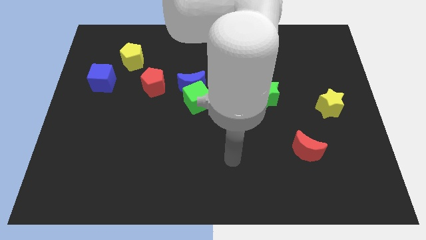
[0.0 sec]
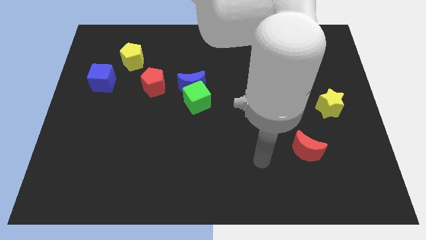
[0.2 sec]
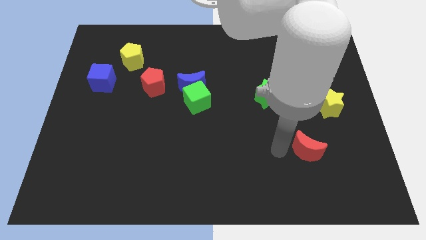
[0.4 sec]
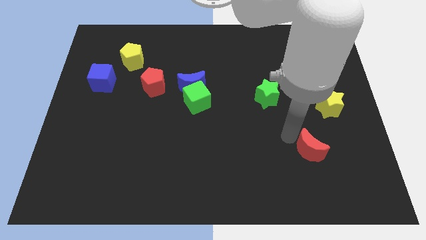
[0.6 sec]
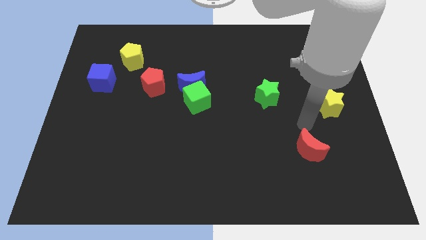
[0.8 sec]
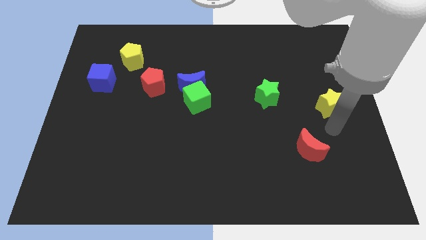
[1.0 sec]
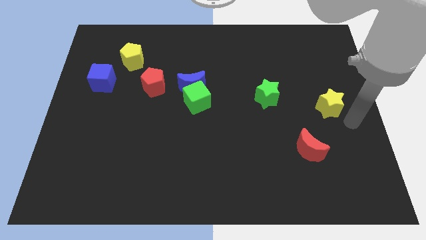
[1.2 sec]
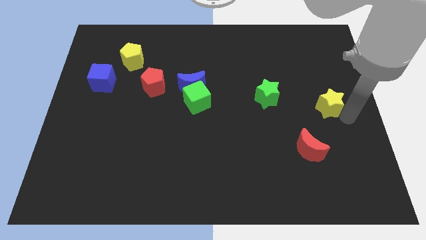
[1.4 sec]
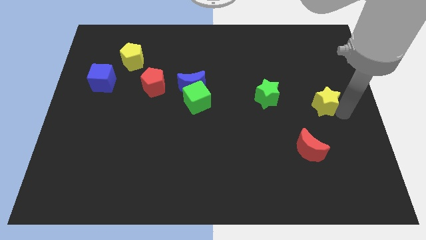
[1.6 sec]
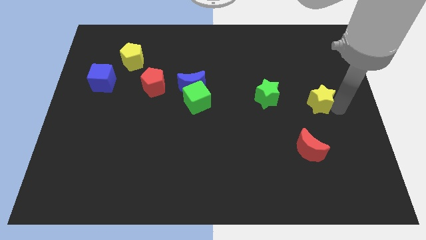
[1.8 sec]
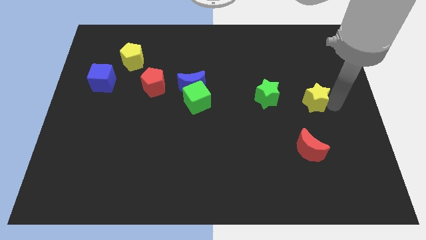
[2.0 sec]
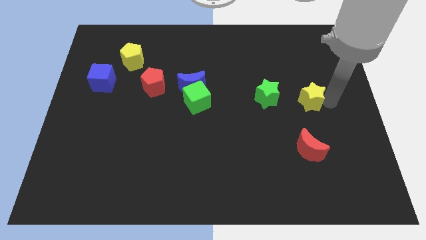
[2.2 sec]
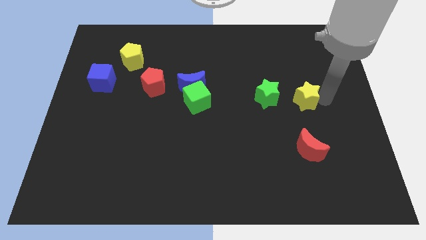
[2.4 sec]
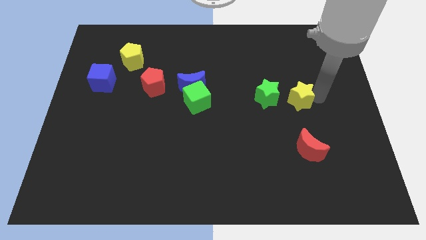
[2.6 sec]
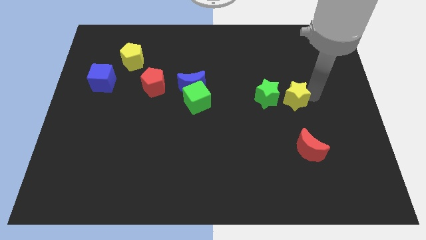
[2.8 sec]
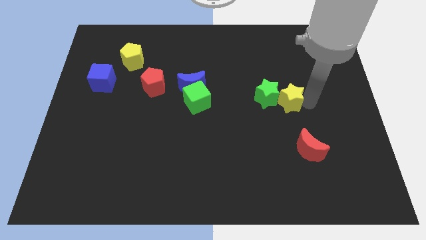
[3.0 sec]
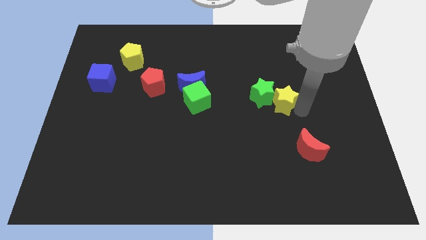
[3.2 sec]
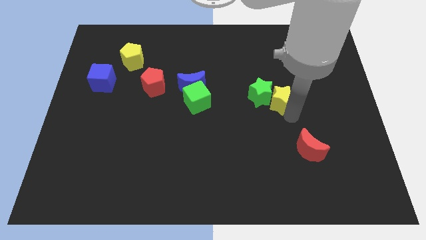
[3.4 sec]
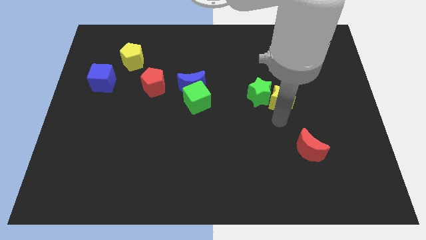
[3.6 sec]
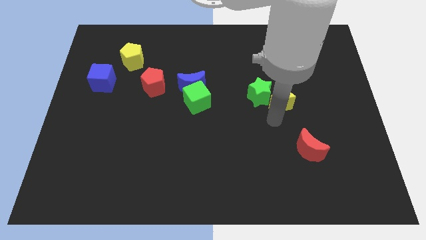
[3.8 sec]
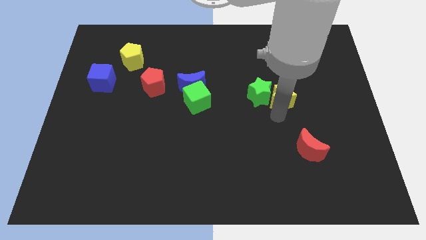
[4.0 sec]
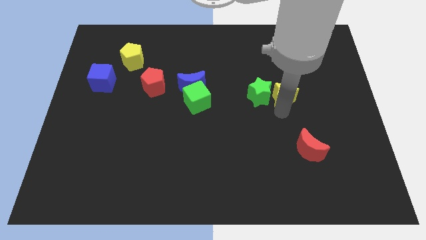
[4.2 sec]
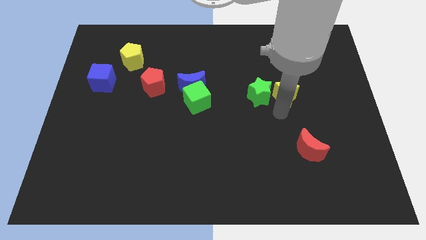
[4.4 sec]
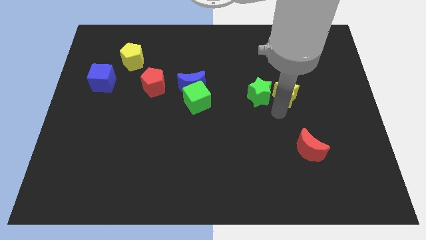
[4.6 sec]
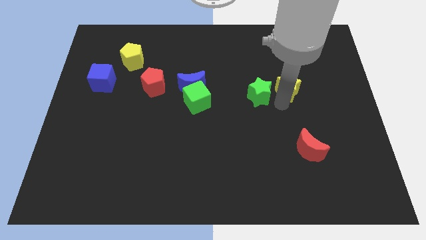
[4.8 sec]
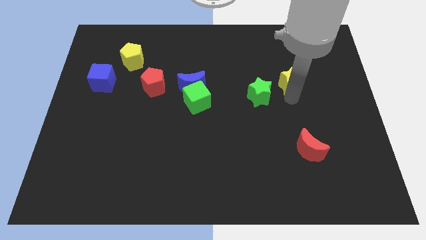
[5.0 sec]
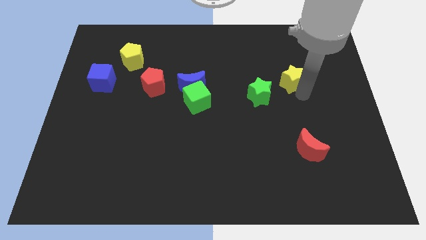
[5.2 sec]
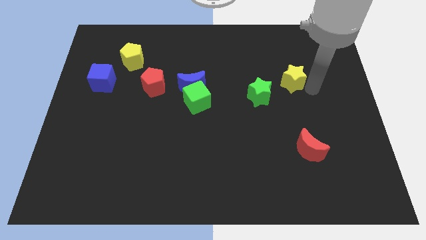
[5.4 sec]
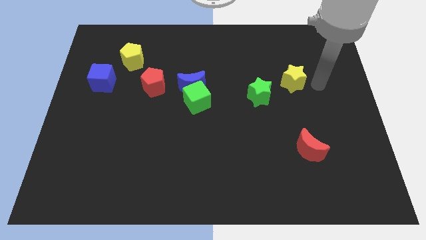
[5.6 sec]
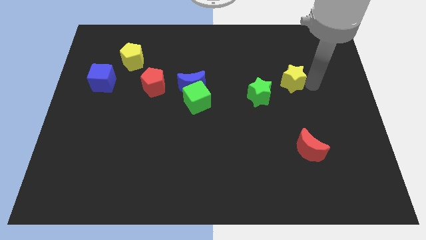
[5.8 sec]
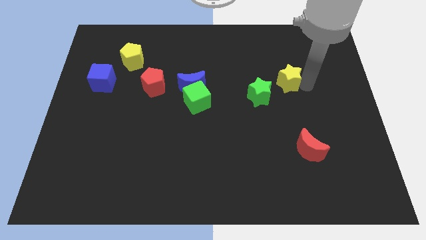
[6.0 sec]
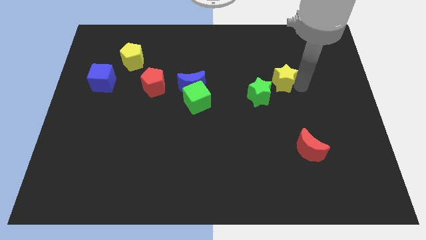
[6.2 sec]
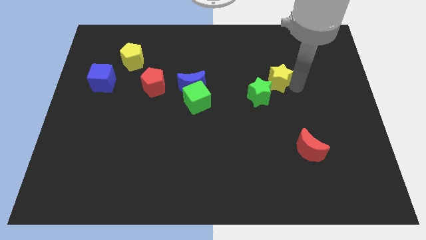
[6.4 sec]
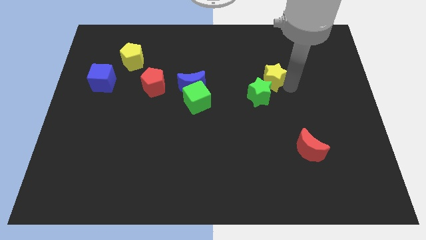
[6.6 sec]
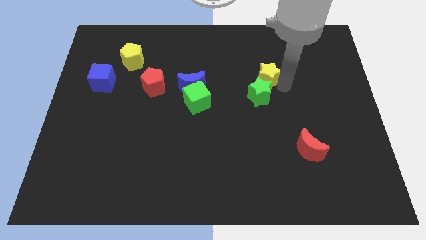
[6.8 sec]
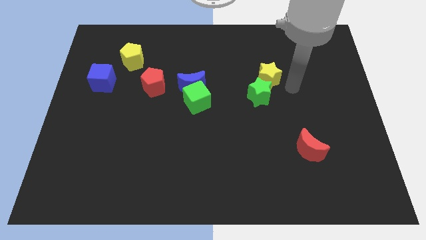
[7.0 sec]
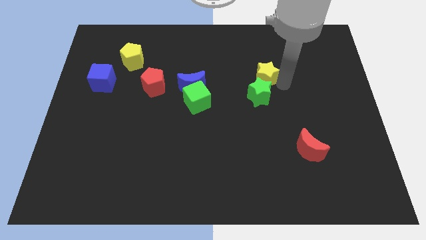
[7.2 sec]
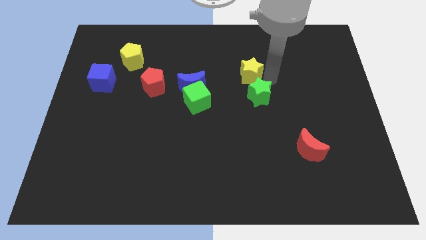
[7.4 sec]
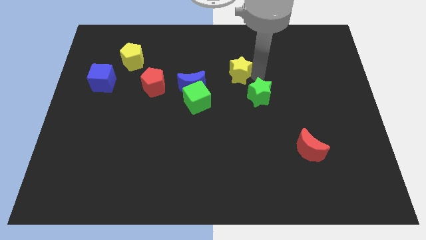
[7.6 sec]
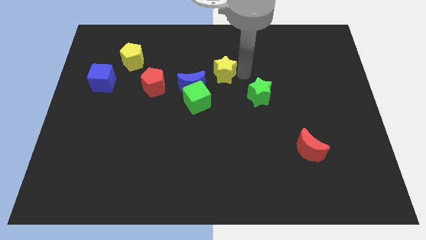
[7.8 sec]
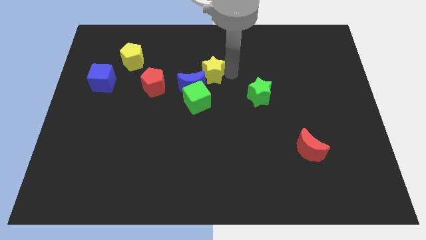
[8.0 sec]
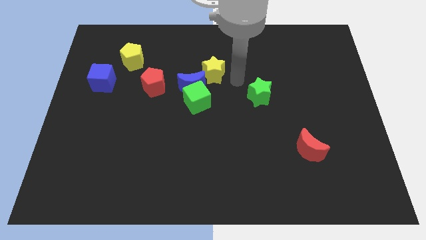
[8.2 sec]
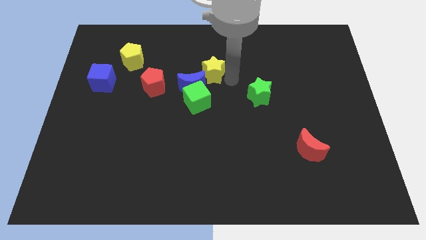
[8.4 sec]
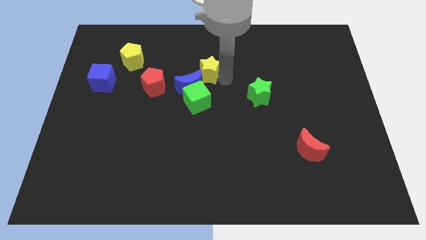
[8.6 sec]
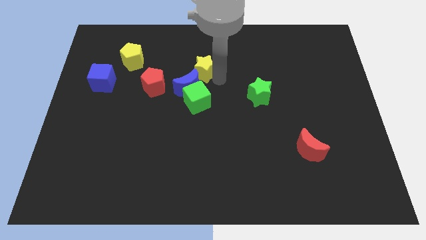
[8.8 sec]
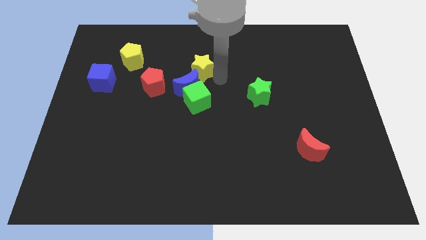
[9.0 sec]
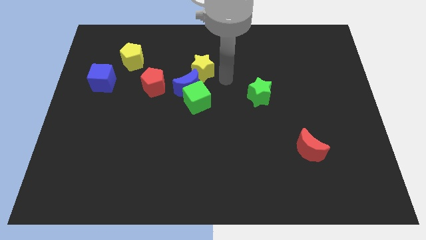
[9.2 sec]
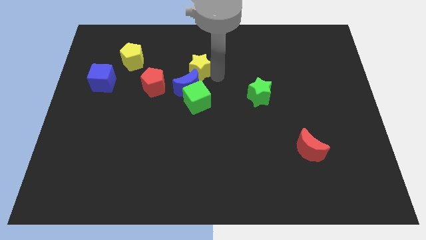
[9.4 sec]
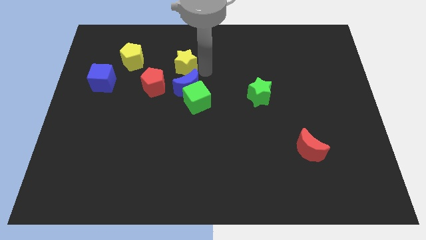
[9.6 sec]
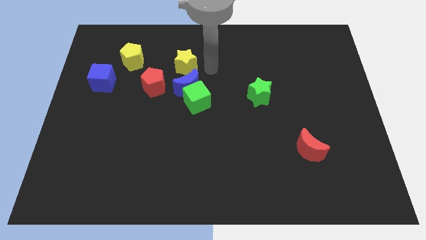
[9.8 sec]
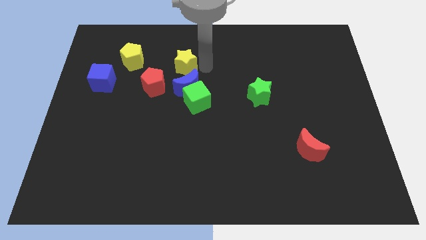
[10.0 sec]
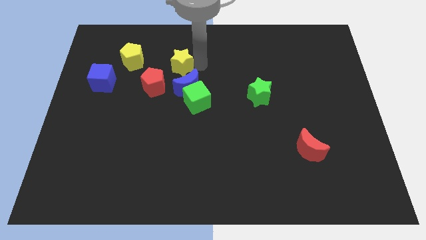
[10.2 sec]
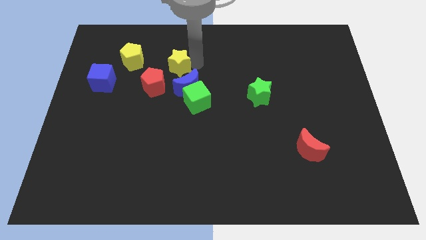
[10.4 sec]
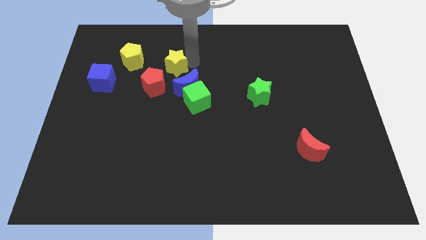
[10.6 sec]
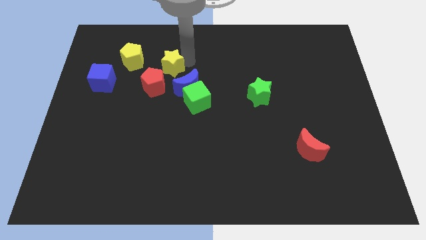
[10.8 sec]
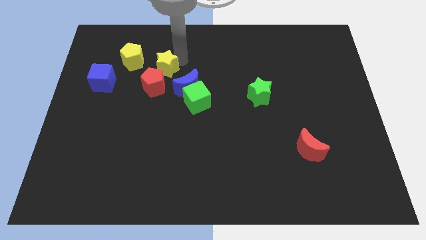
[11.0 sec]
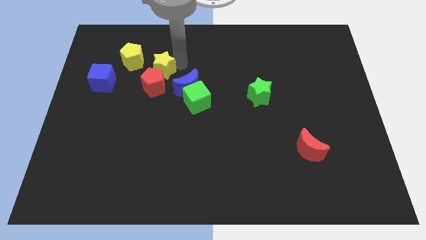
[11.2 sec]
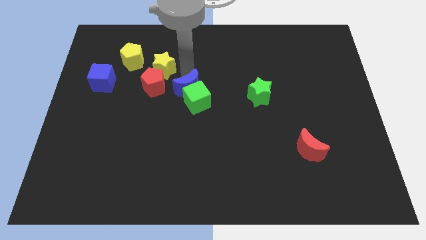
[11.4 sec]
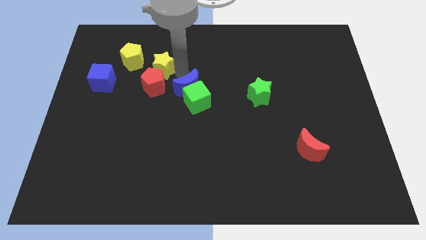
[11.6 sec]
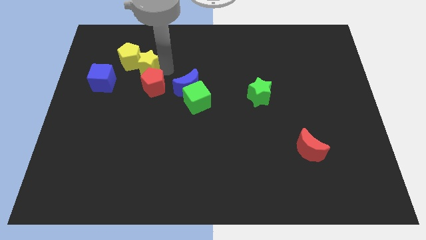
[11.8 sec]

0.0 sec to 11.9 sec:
put the yellow star next to the yellow pentagon

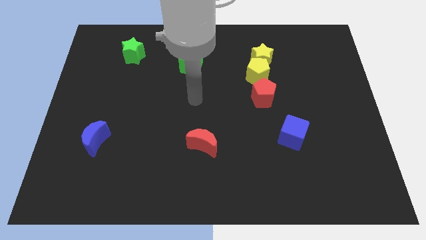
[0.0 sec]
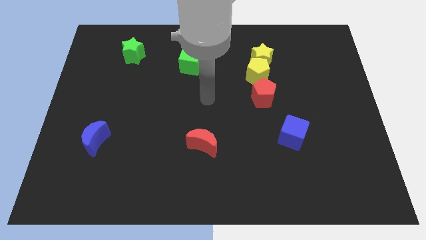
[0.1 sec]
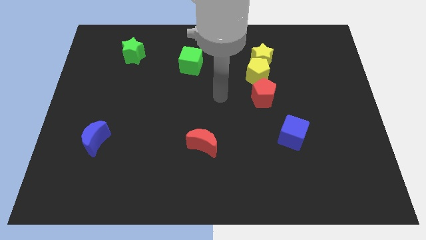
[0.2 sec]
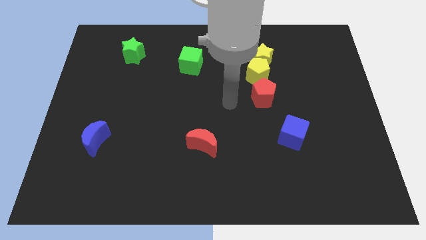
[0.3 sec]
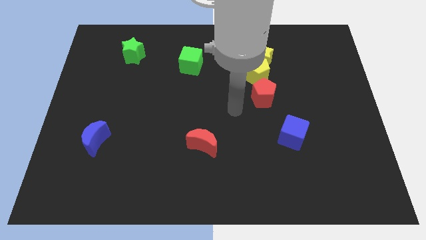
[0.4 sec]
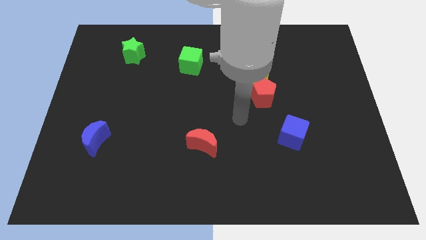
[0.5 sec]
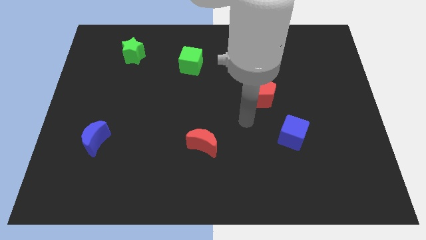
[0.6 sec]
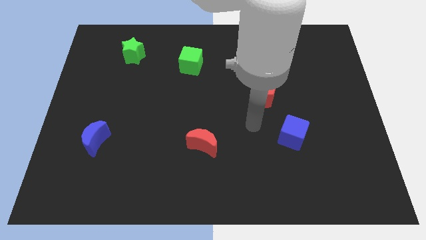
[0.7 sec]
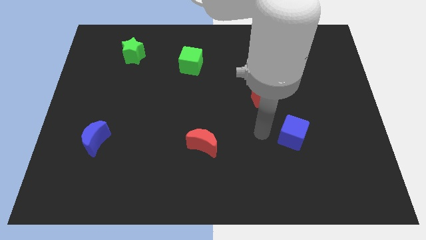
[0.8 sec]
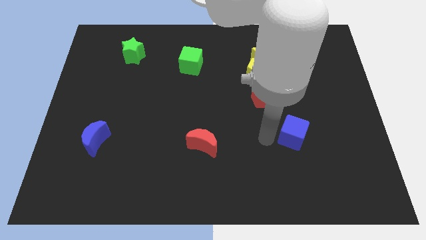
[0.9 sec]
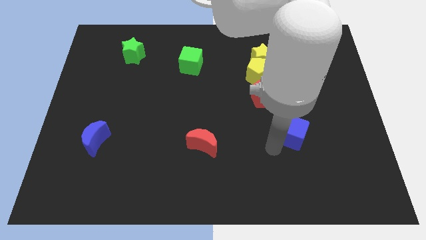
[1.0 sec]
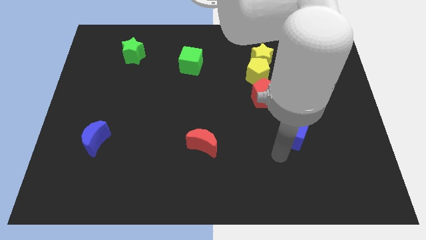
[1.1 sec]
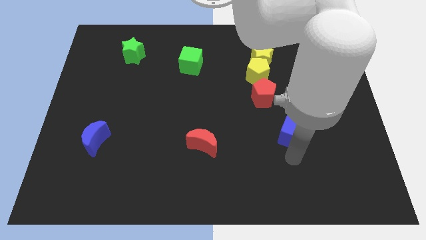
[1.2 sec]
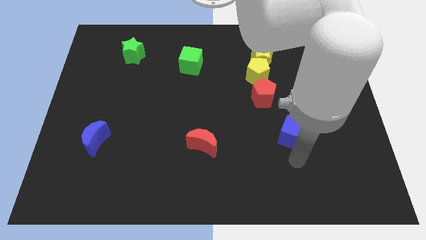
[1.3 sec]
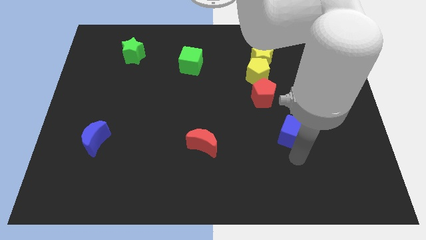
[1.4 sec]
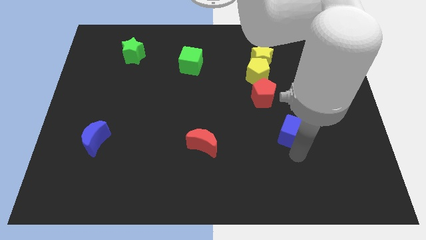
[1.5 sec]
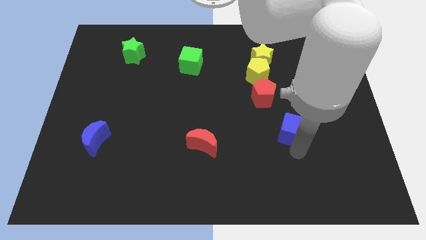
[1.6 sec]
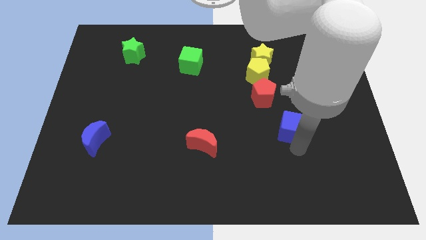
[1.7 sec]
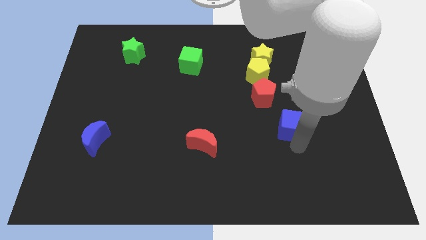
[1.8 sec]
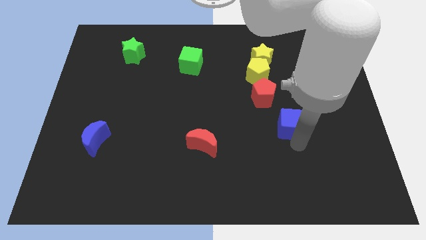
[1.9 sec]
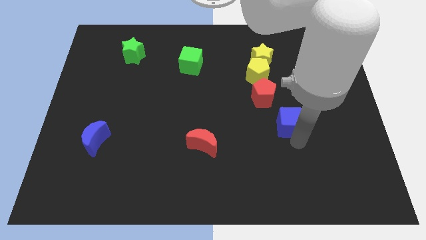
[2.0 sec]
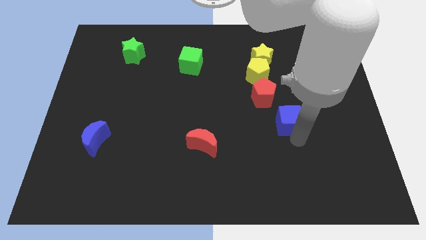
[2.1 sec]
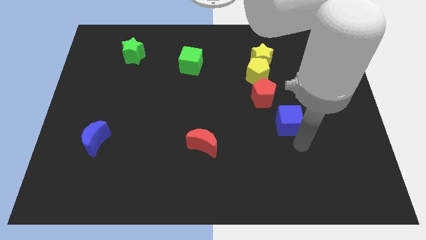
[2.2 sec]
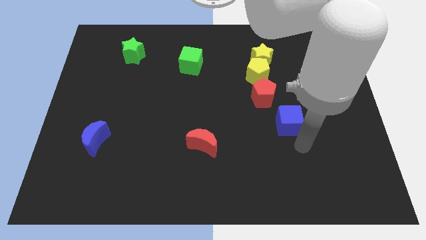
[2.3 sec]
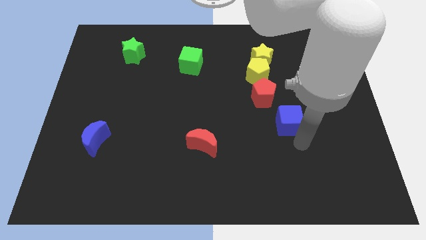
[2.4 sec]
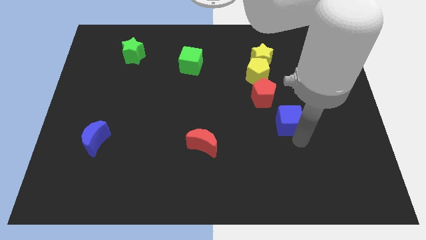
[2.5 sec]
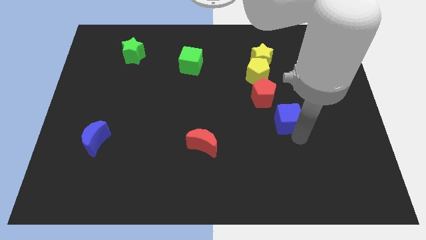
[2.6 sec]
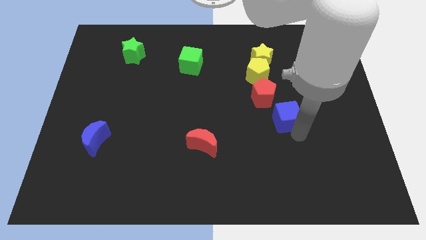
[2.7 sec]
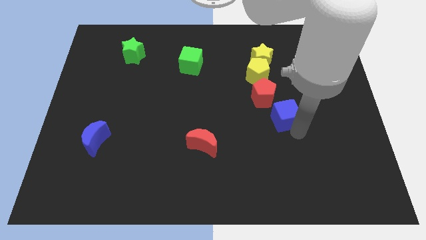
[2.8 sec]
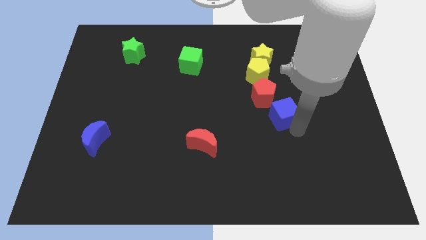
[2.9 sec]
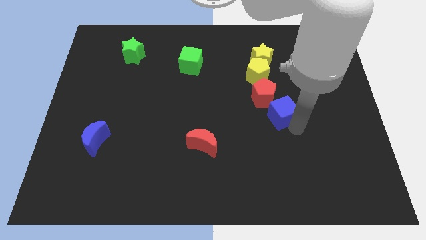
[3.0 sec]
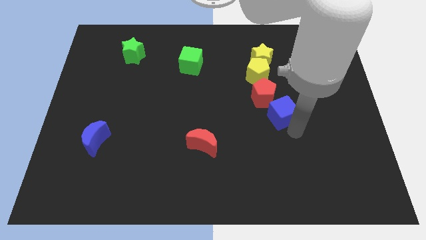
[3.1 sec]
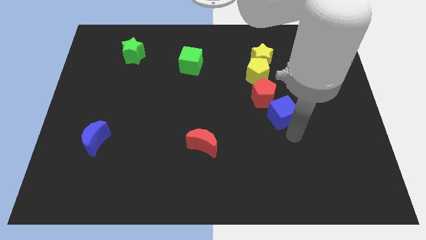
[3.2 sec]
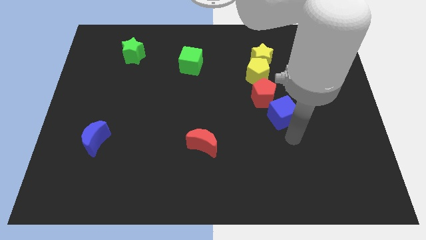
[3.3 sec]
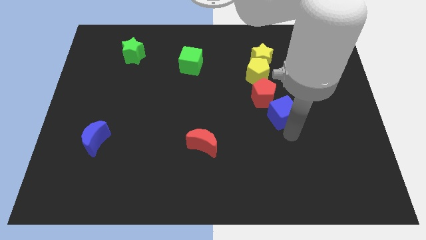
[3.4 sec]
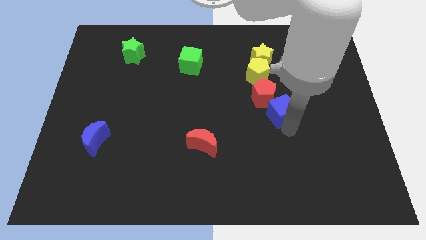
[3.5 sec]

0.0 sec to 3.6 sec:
push the blue cube towards the red pentagon
